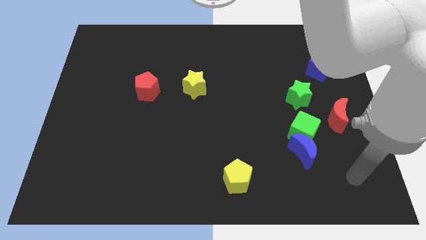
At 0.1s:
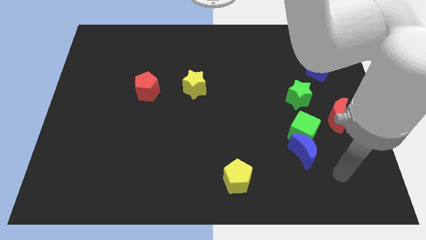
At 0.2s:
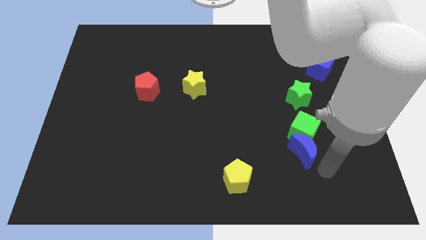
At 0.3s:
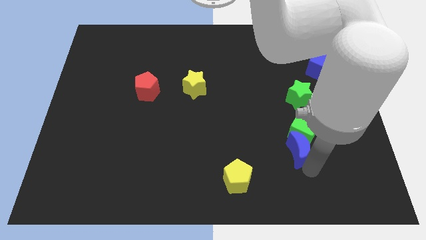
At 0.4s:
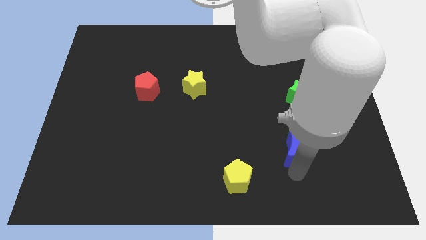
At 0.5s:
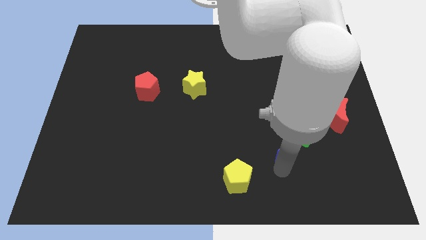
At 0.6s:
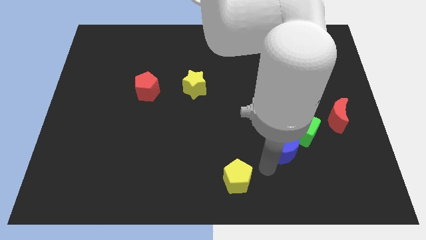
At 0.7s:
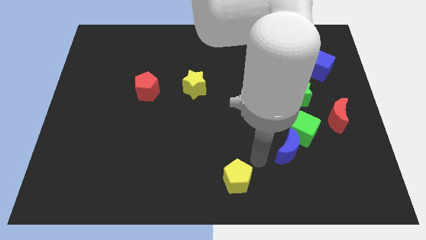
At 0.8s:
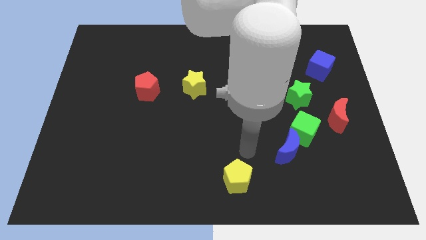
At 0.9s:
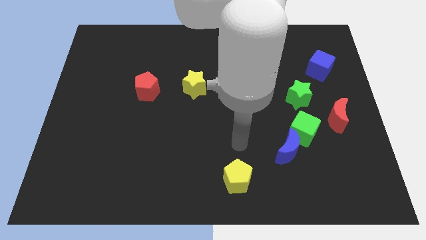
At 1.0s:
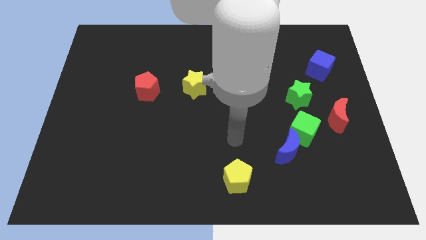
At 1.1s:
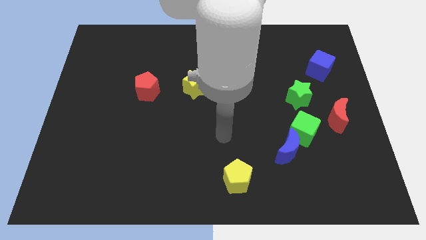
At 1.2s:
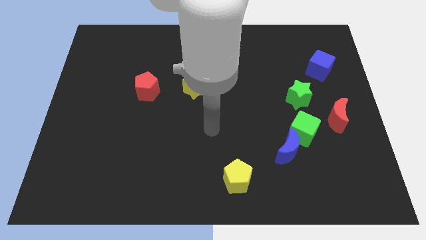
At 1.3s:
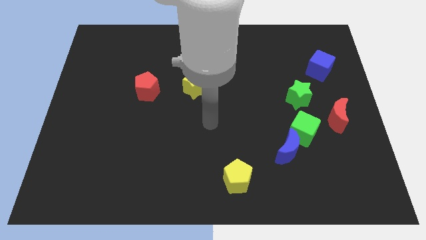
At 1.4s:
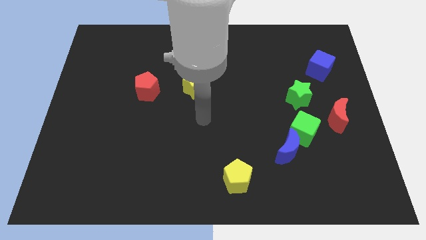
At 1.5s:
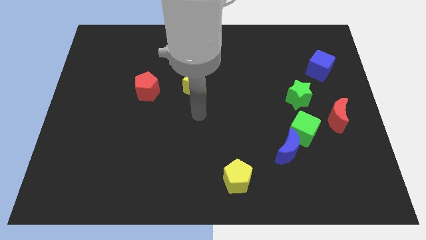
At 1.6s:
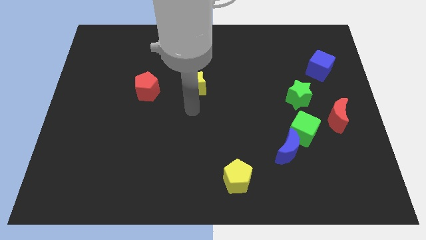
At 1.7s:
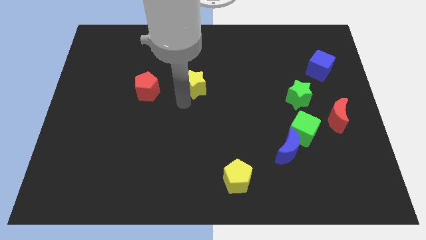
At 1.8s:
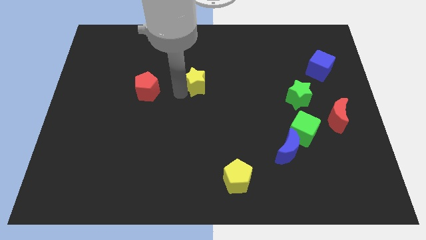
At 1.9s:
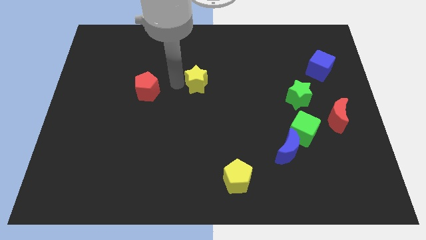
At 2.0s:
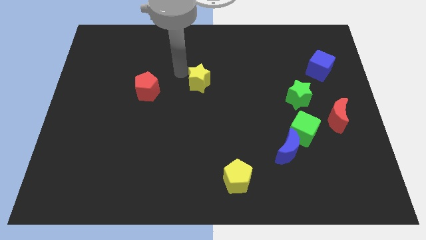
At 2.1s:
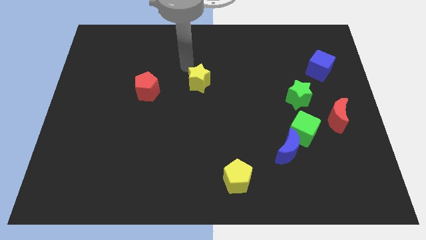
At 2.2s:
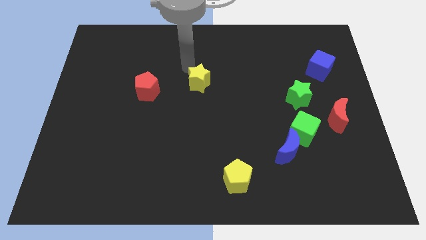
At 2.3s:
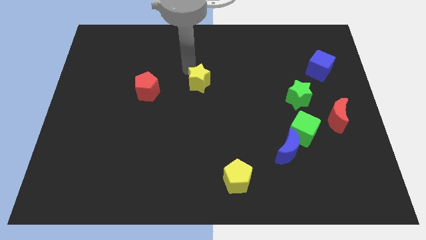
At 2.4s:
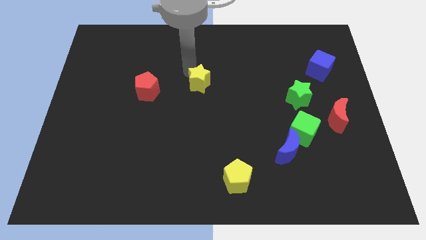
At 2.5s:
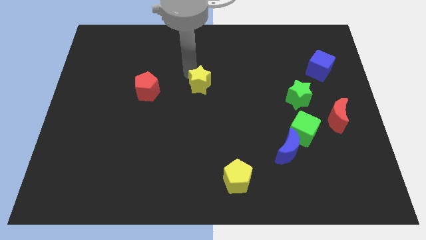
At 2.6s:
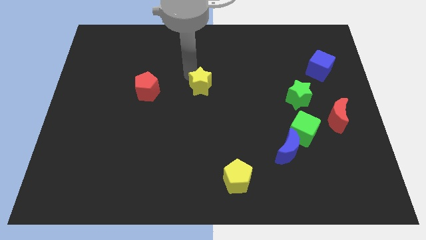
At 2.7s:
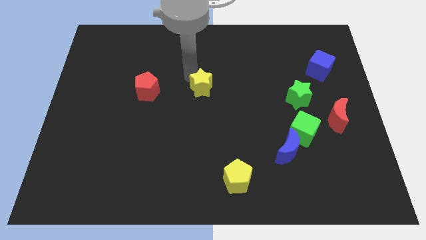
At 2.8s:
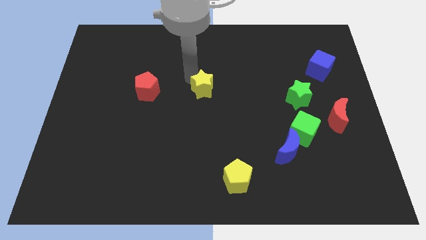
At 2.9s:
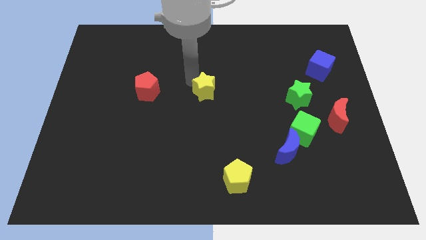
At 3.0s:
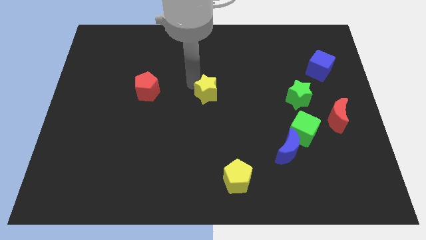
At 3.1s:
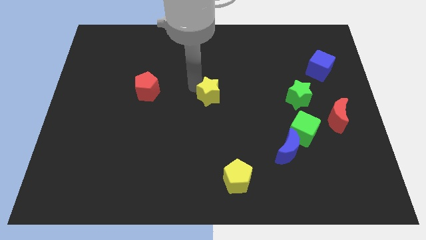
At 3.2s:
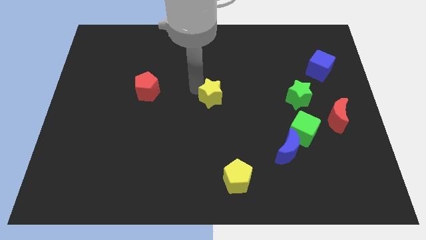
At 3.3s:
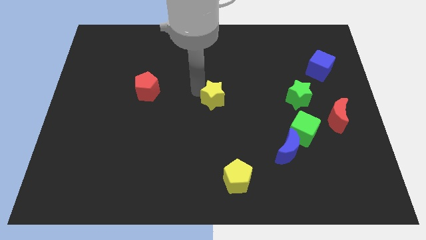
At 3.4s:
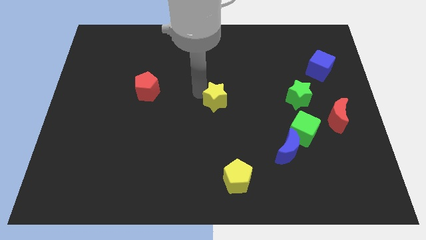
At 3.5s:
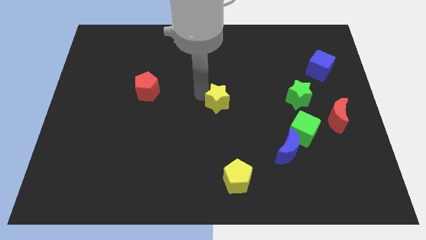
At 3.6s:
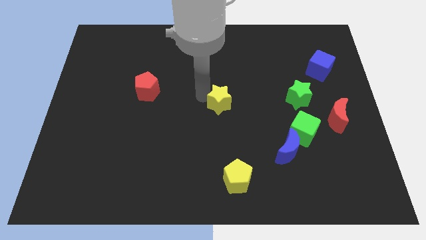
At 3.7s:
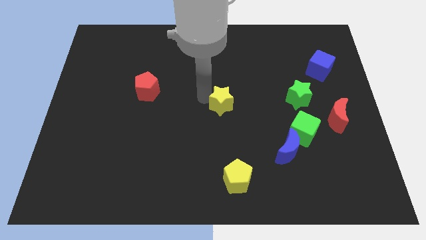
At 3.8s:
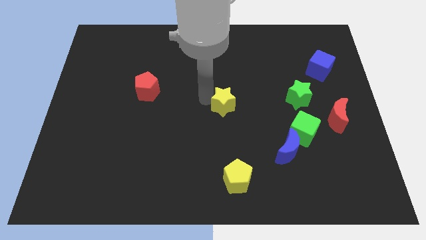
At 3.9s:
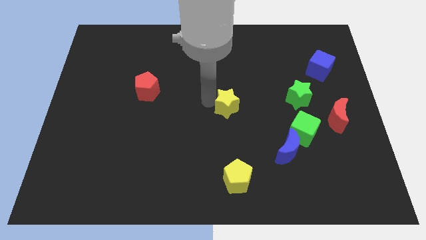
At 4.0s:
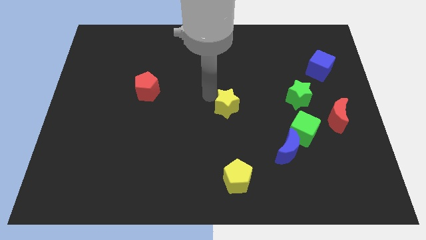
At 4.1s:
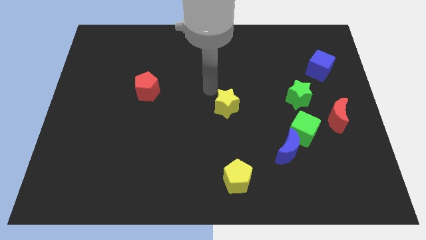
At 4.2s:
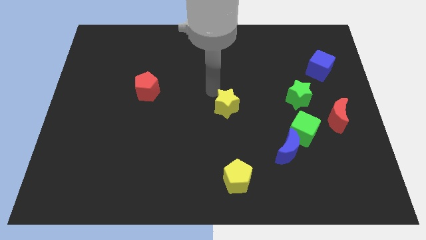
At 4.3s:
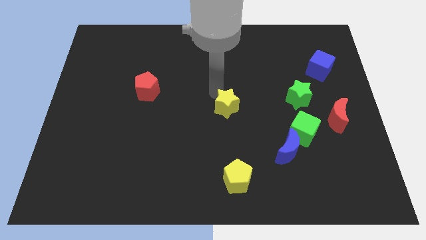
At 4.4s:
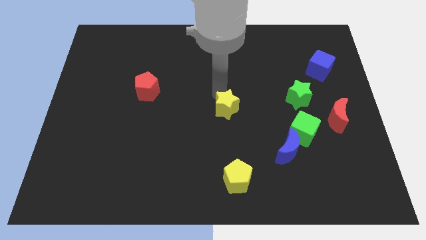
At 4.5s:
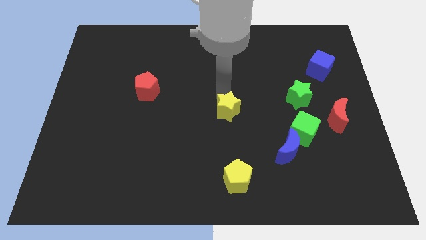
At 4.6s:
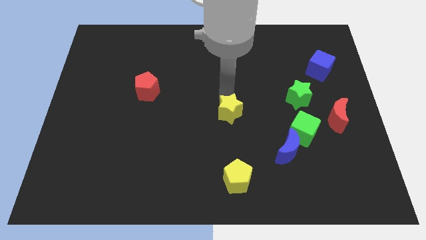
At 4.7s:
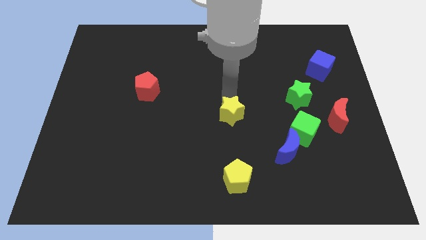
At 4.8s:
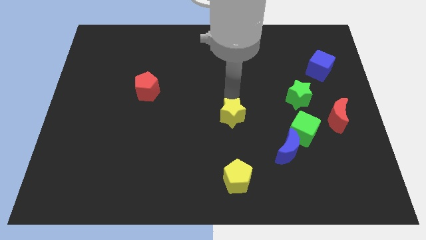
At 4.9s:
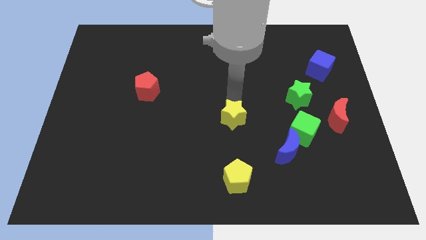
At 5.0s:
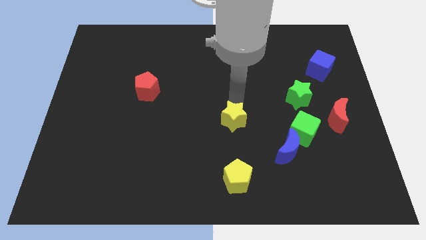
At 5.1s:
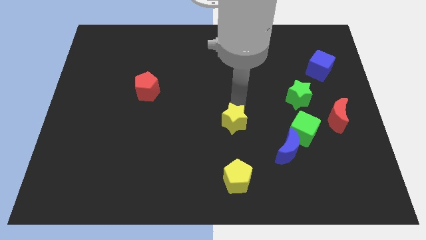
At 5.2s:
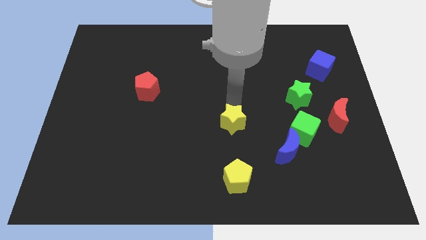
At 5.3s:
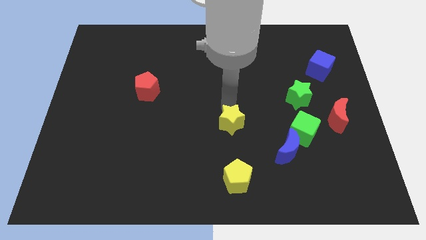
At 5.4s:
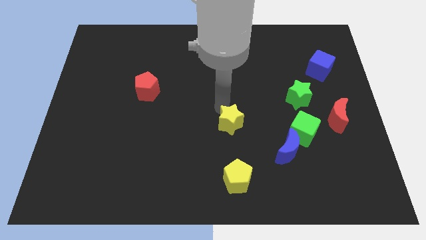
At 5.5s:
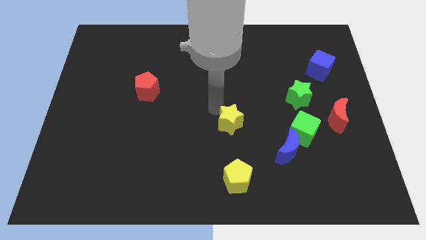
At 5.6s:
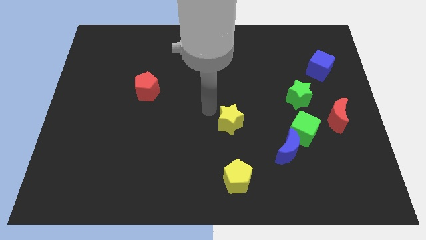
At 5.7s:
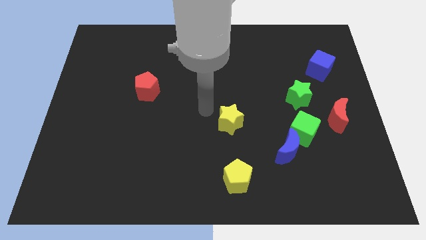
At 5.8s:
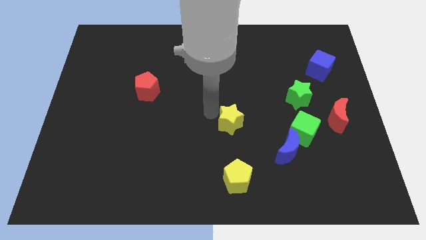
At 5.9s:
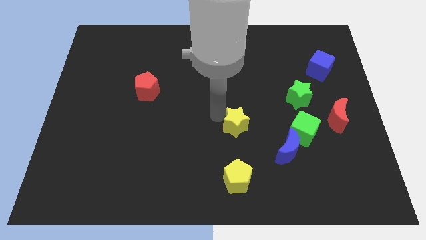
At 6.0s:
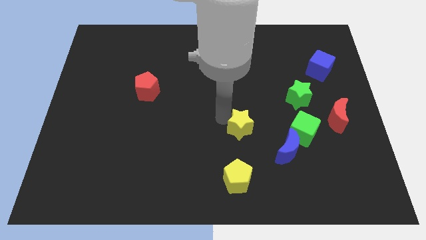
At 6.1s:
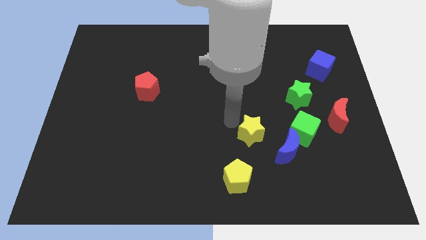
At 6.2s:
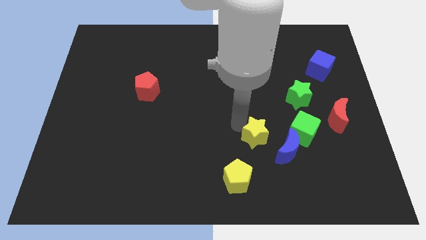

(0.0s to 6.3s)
slide the yellow star down and then right

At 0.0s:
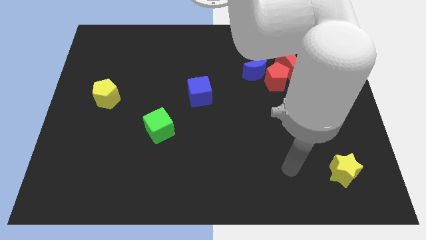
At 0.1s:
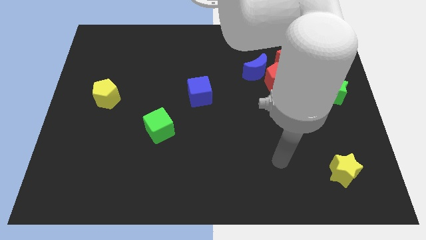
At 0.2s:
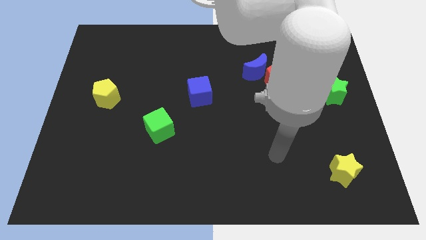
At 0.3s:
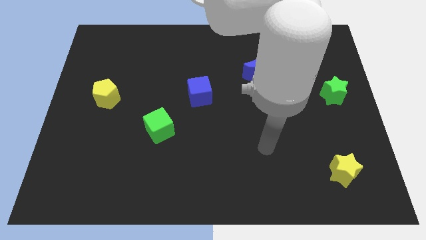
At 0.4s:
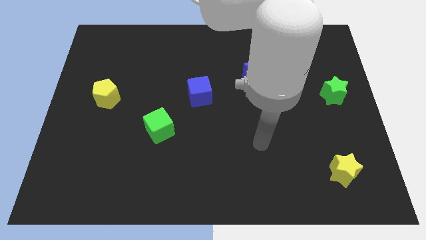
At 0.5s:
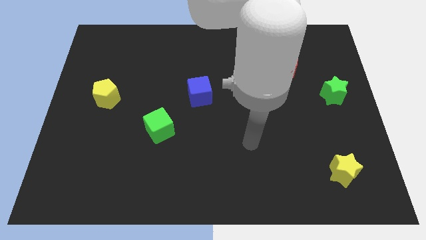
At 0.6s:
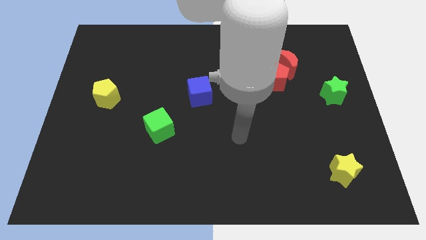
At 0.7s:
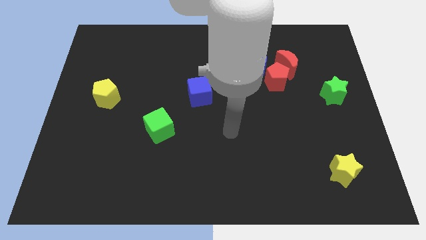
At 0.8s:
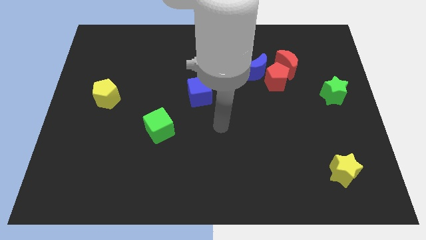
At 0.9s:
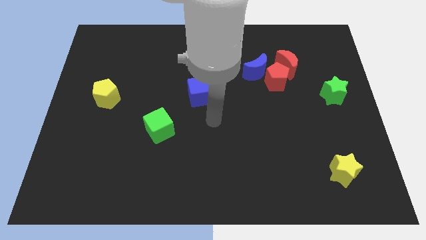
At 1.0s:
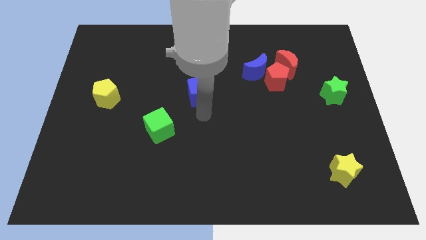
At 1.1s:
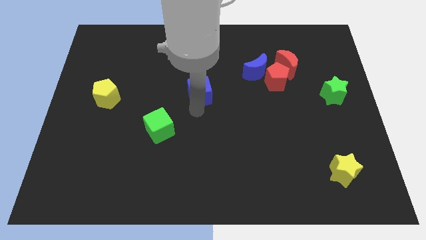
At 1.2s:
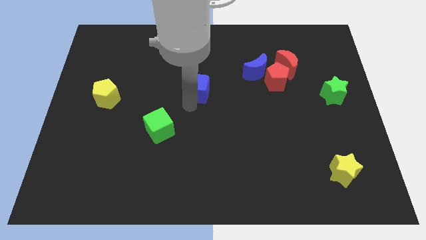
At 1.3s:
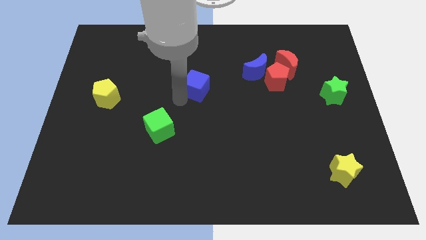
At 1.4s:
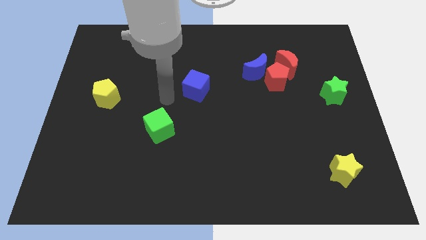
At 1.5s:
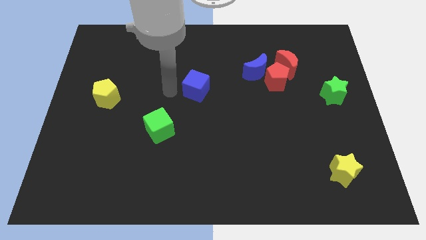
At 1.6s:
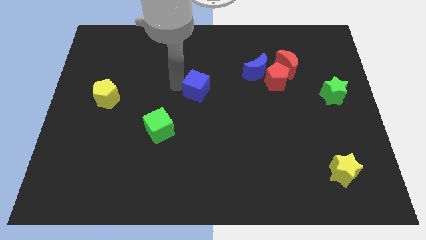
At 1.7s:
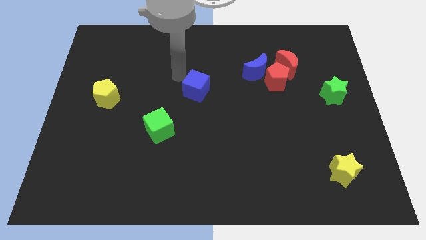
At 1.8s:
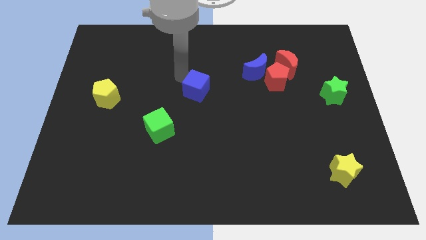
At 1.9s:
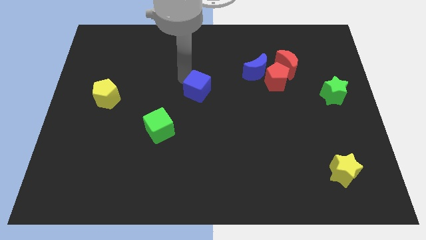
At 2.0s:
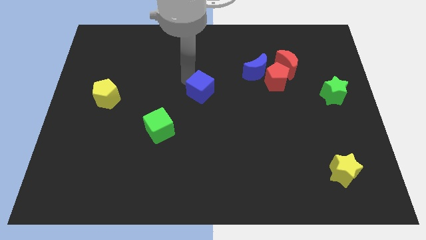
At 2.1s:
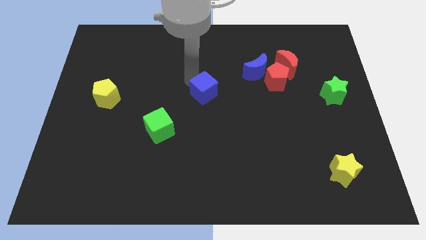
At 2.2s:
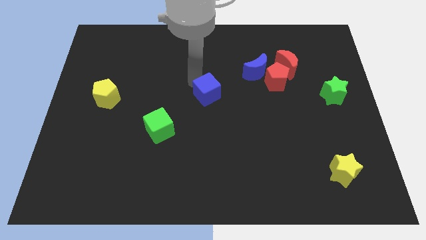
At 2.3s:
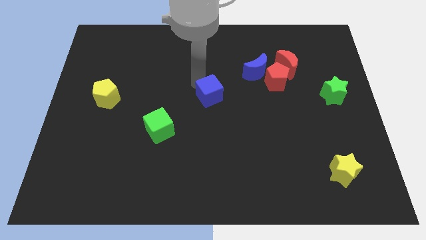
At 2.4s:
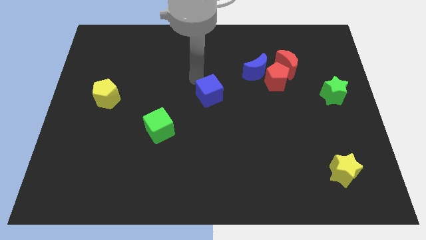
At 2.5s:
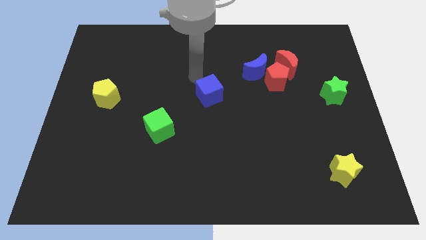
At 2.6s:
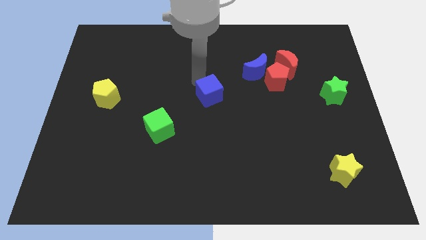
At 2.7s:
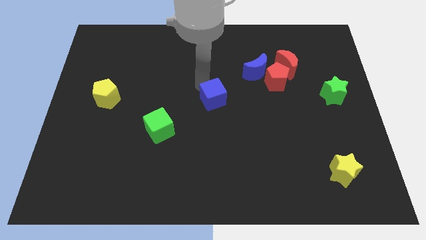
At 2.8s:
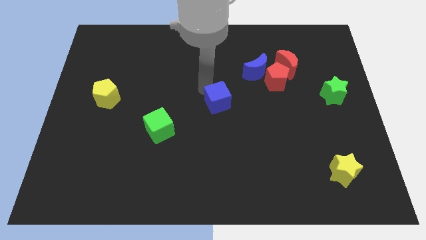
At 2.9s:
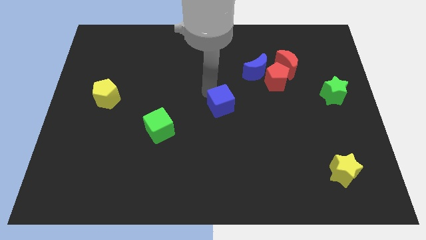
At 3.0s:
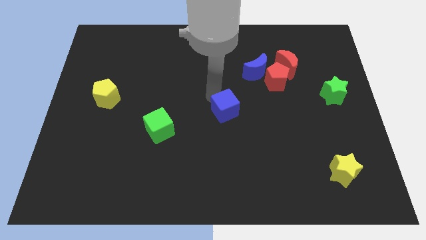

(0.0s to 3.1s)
slide the blue cube diagonally down and to the right slightly
